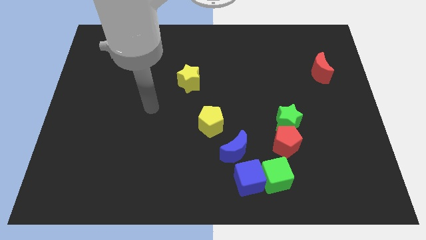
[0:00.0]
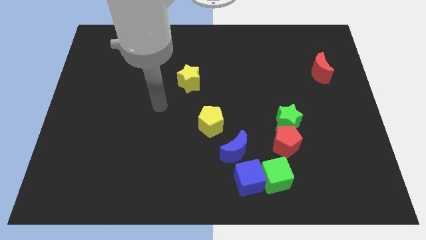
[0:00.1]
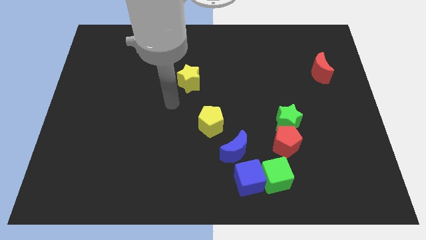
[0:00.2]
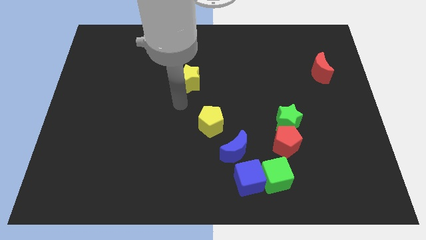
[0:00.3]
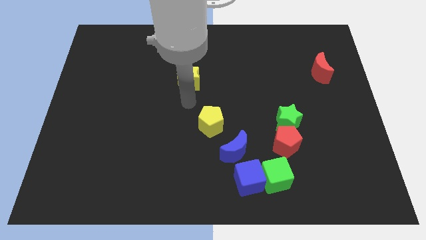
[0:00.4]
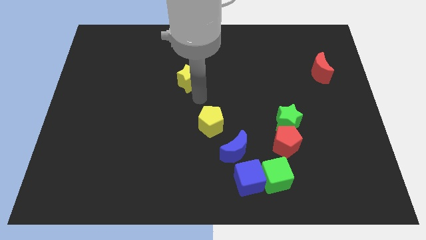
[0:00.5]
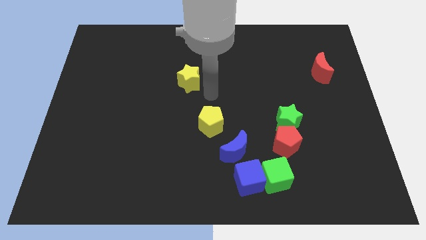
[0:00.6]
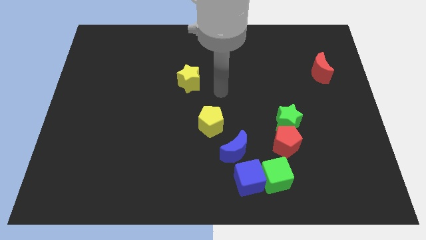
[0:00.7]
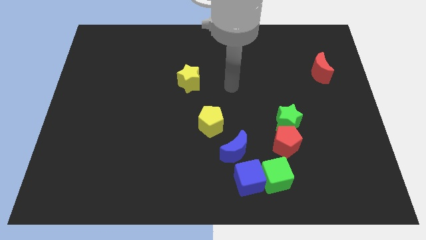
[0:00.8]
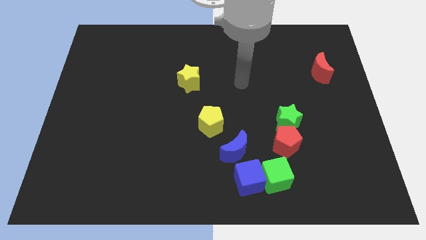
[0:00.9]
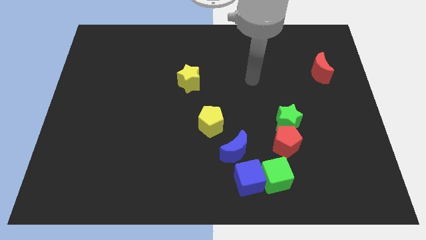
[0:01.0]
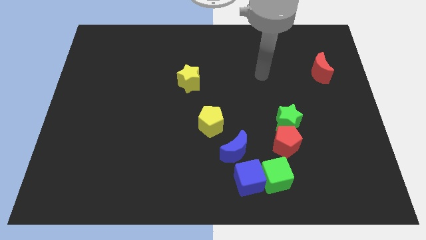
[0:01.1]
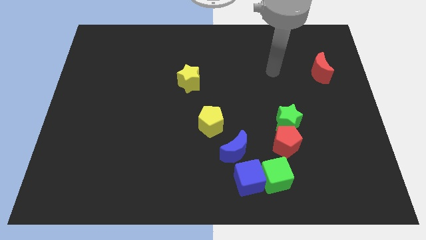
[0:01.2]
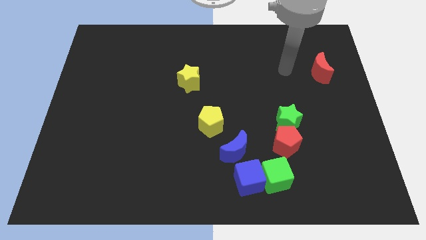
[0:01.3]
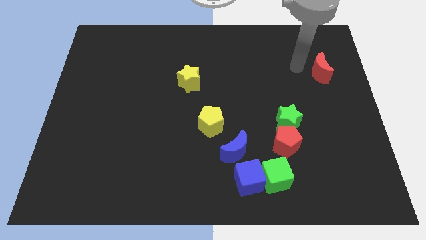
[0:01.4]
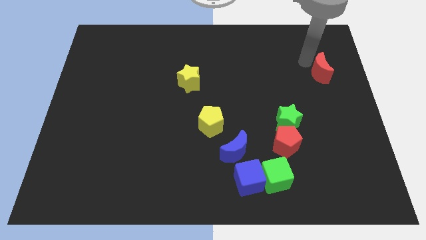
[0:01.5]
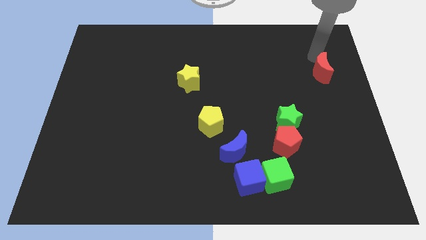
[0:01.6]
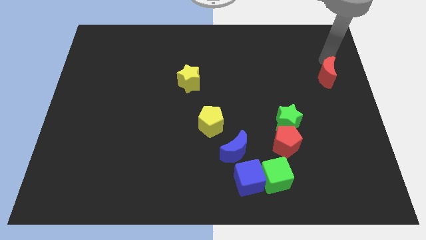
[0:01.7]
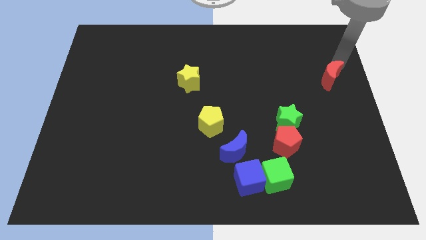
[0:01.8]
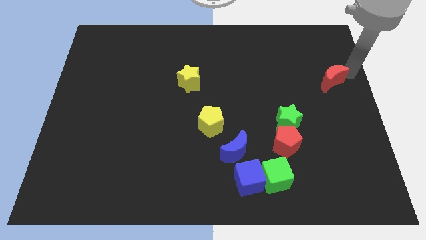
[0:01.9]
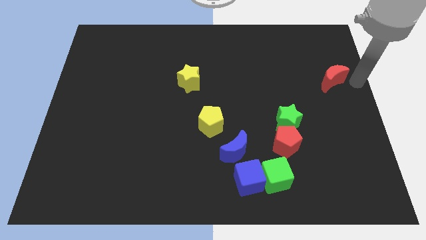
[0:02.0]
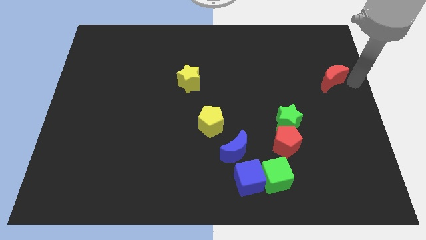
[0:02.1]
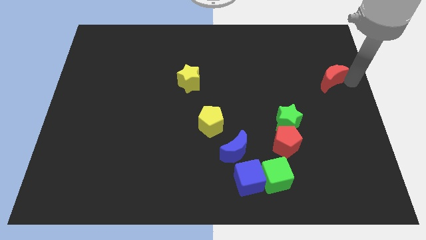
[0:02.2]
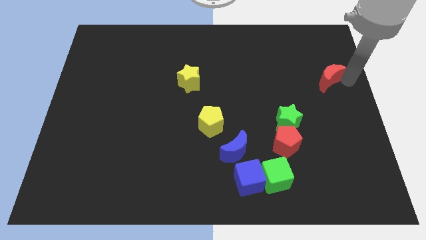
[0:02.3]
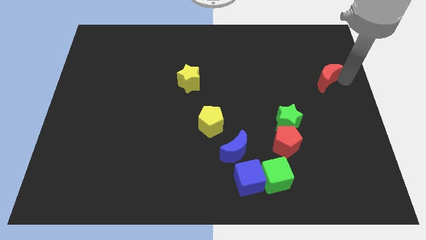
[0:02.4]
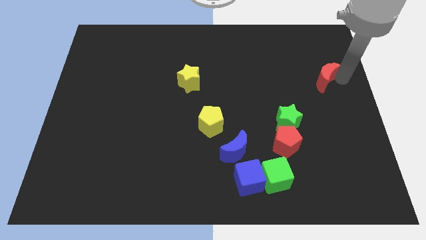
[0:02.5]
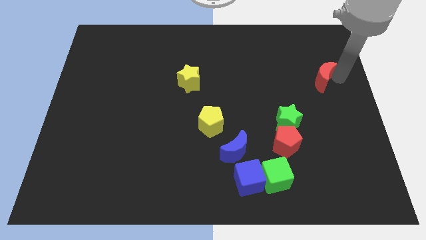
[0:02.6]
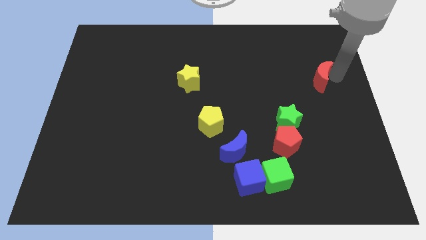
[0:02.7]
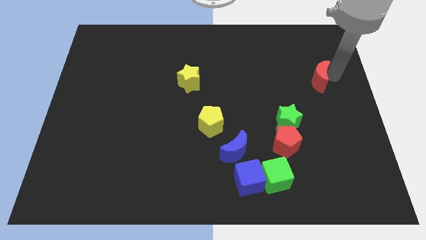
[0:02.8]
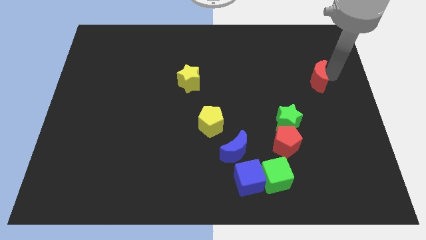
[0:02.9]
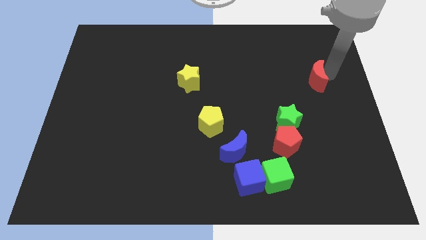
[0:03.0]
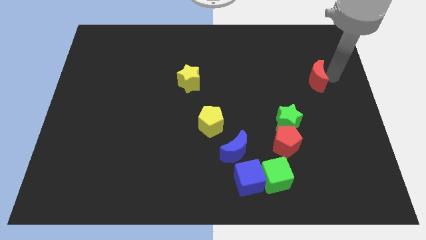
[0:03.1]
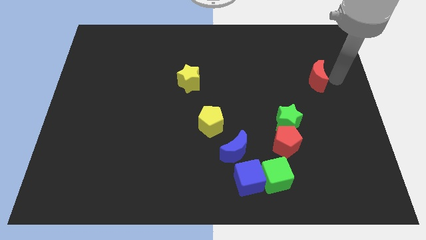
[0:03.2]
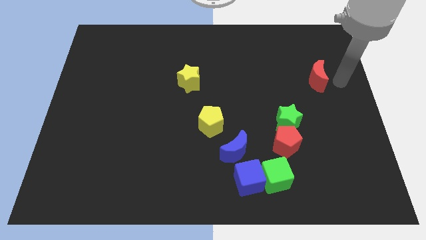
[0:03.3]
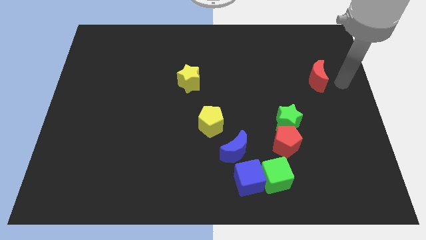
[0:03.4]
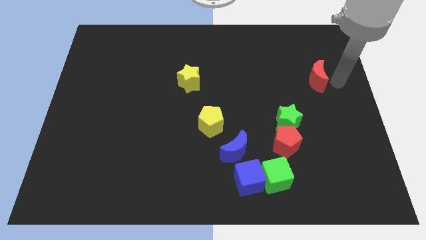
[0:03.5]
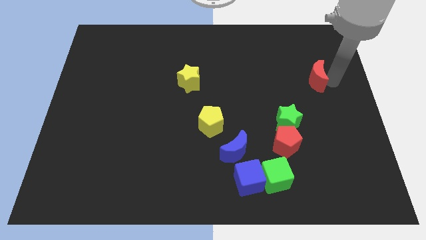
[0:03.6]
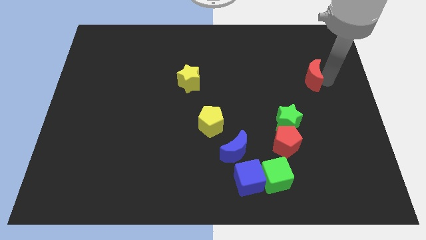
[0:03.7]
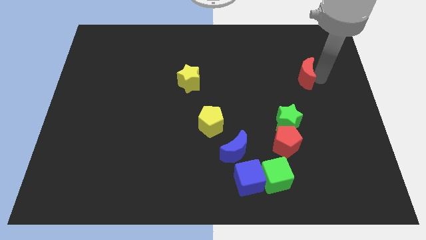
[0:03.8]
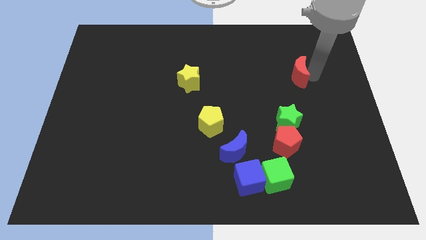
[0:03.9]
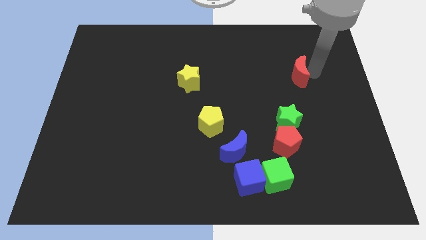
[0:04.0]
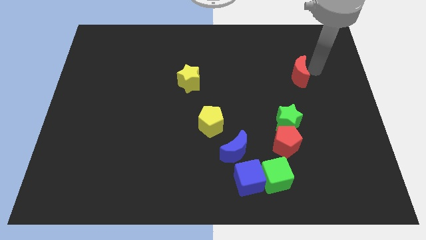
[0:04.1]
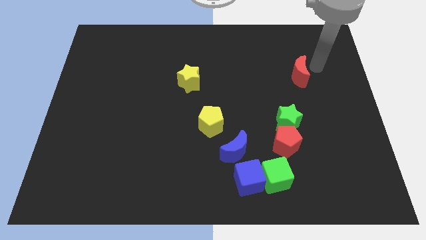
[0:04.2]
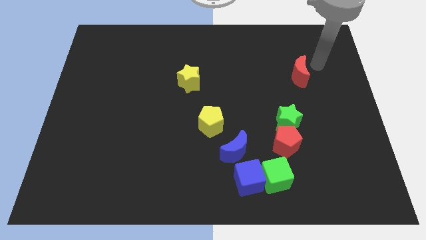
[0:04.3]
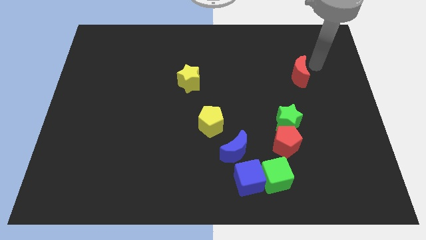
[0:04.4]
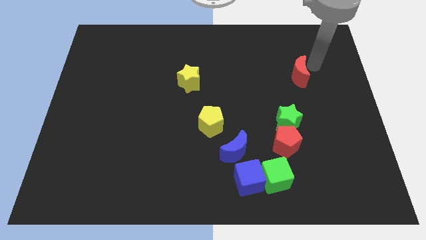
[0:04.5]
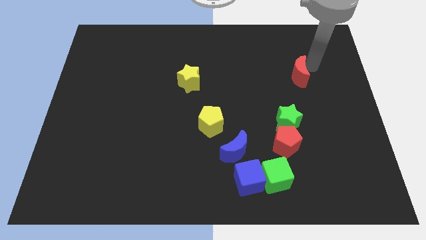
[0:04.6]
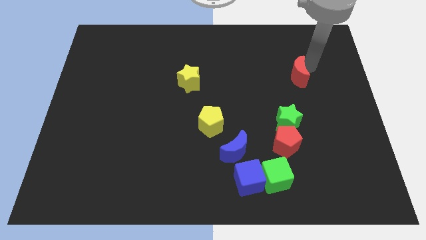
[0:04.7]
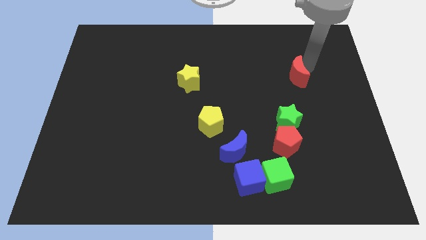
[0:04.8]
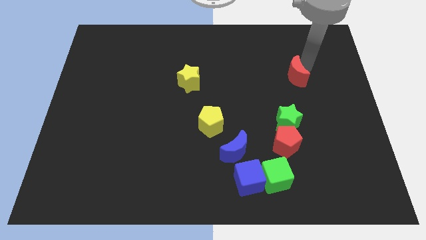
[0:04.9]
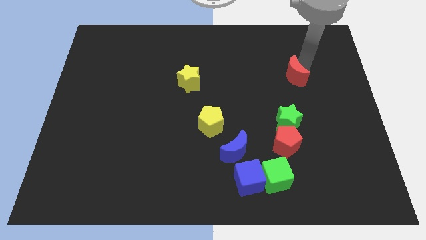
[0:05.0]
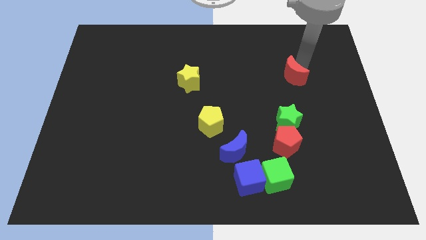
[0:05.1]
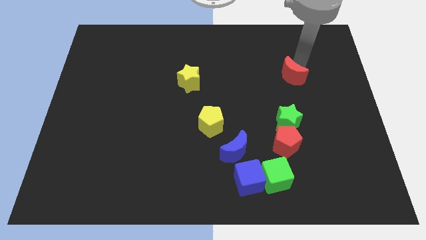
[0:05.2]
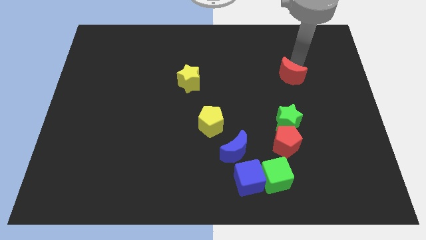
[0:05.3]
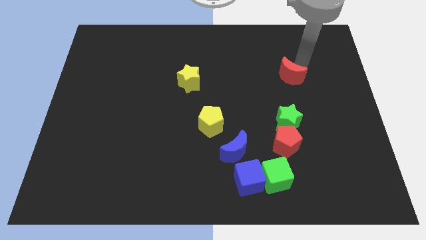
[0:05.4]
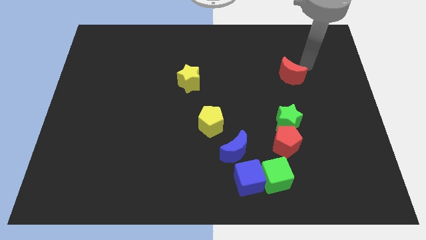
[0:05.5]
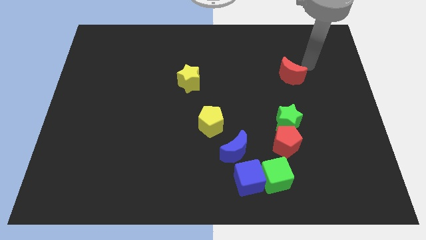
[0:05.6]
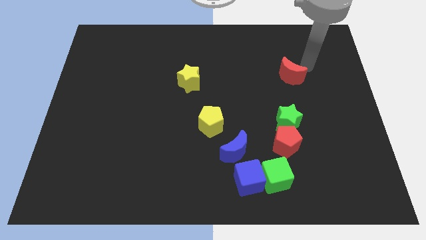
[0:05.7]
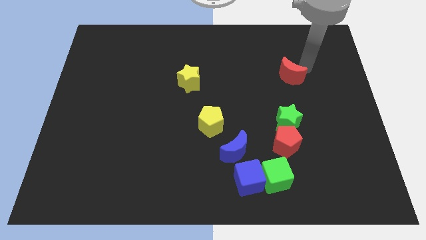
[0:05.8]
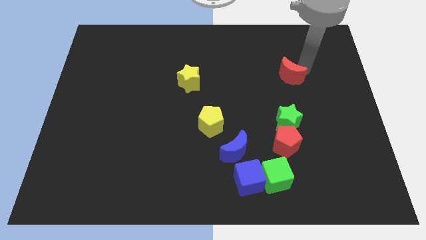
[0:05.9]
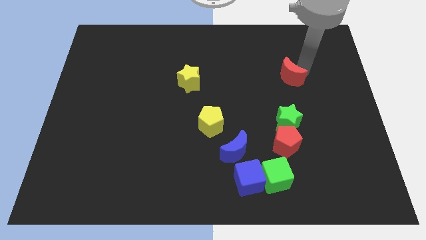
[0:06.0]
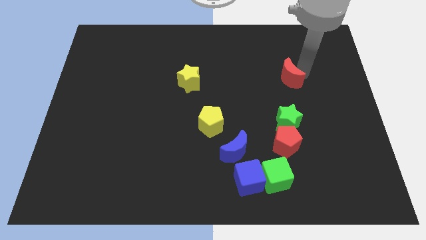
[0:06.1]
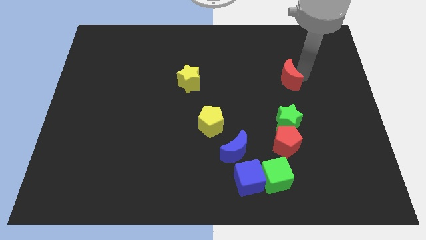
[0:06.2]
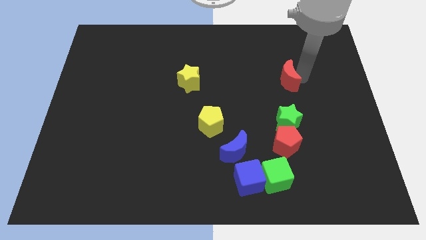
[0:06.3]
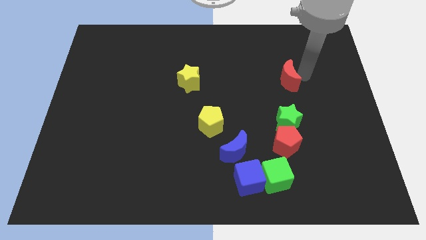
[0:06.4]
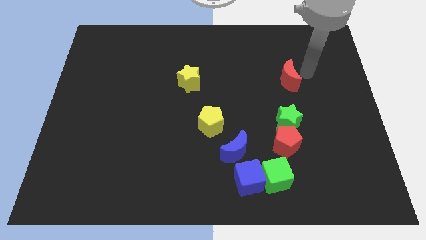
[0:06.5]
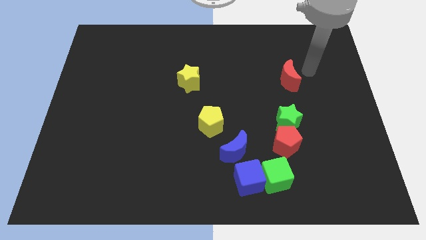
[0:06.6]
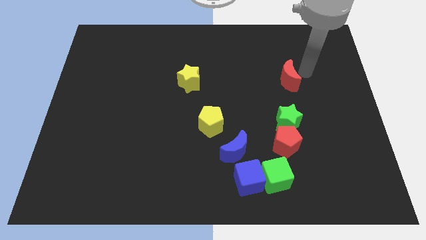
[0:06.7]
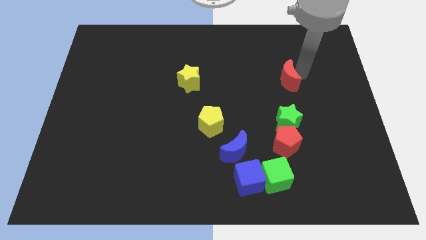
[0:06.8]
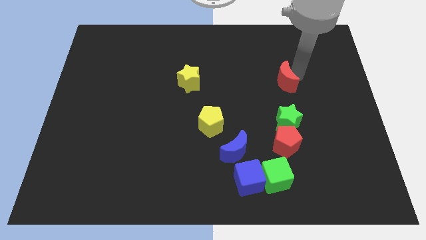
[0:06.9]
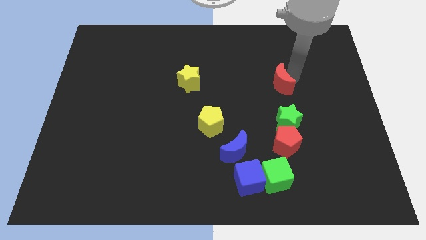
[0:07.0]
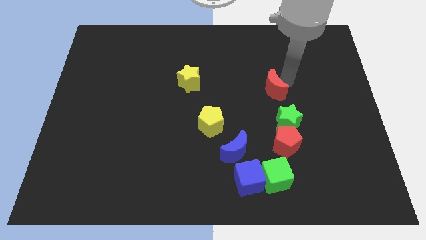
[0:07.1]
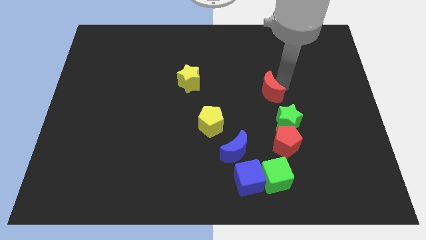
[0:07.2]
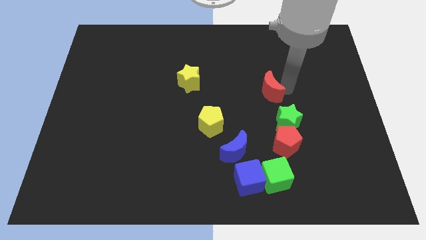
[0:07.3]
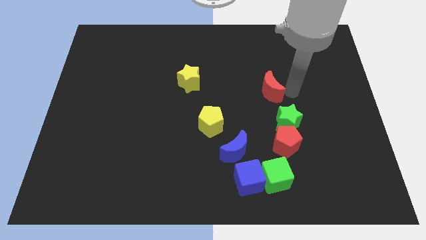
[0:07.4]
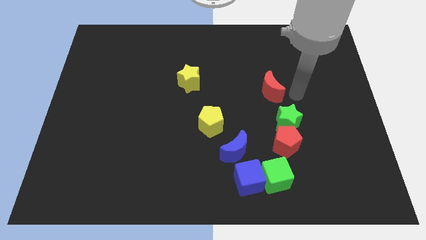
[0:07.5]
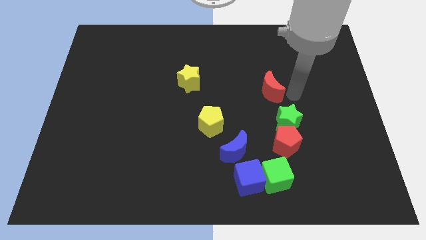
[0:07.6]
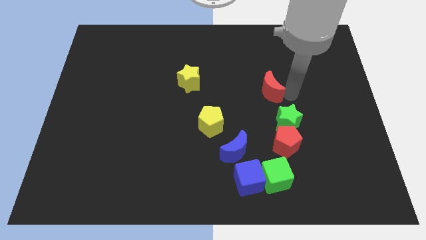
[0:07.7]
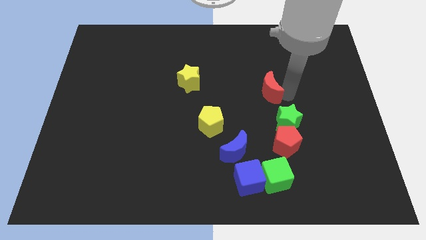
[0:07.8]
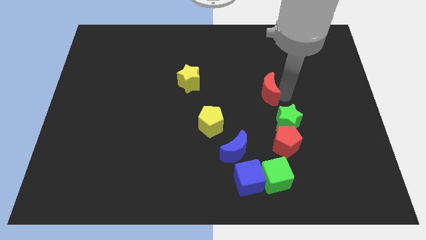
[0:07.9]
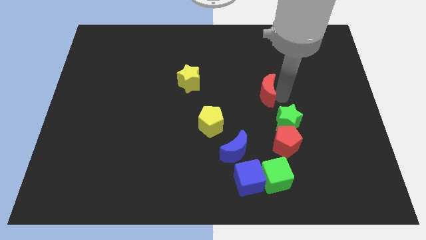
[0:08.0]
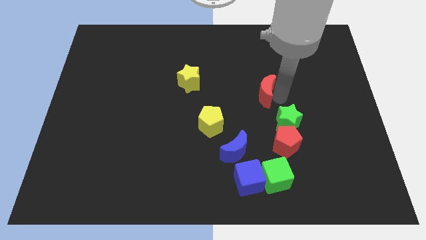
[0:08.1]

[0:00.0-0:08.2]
slide the red moon to the middle of the board
